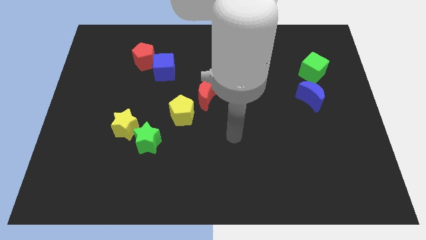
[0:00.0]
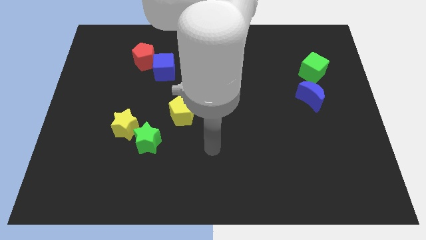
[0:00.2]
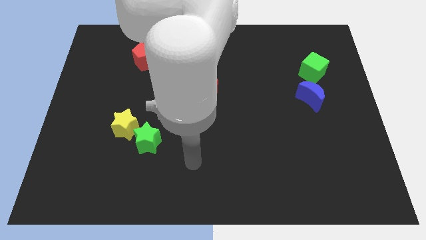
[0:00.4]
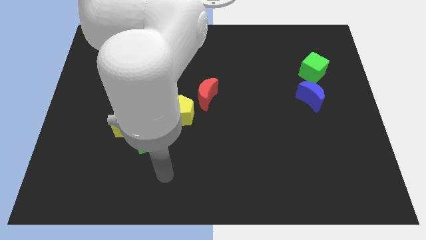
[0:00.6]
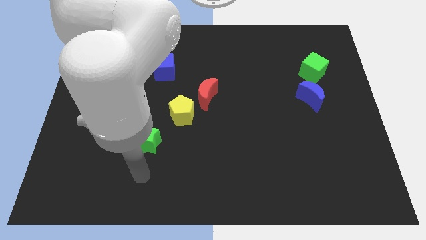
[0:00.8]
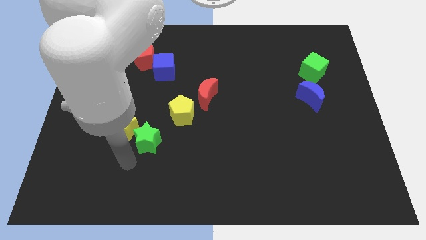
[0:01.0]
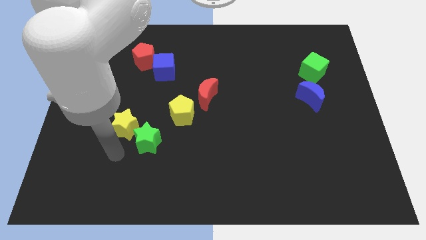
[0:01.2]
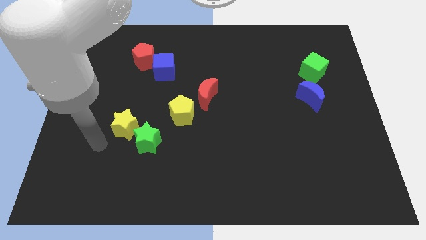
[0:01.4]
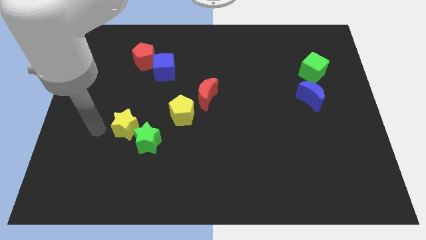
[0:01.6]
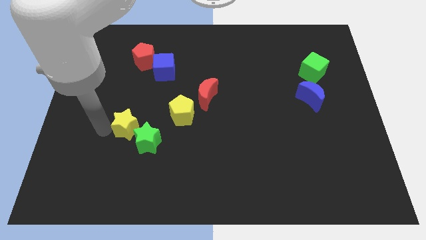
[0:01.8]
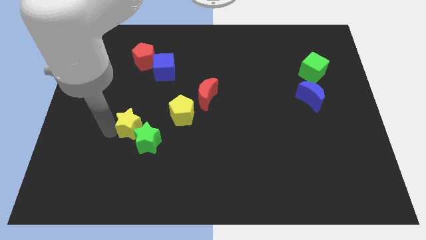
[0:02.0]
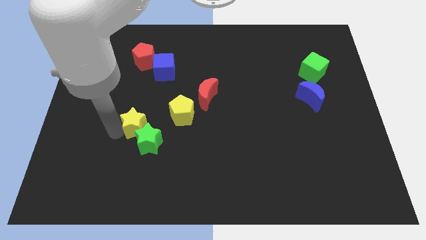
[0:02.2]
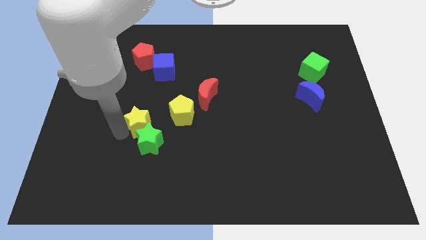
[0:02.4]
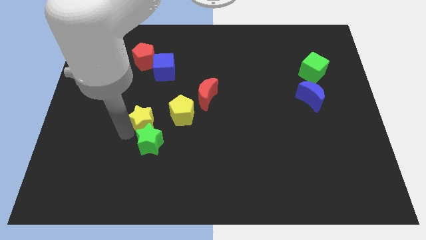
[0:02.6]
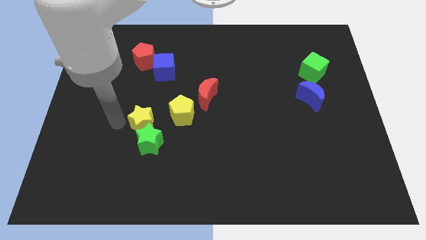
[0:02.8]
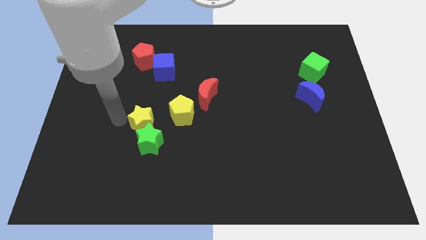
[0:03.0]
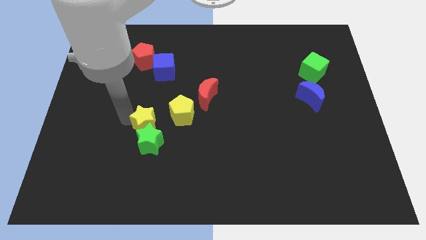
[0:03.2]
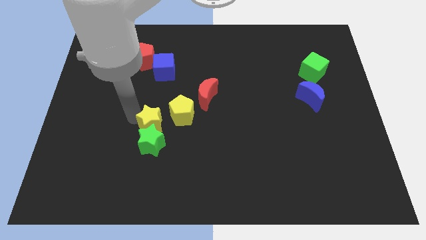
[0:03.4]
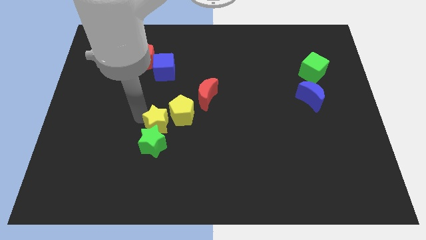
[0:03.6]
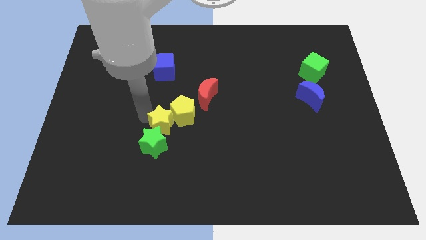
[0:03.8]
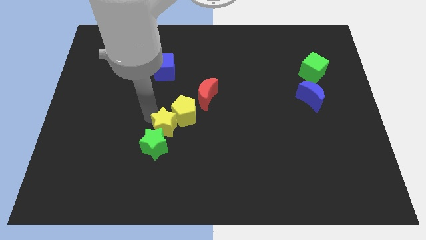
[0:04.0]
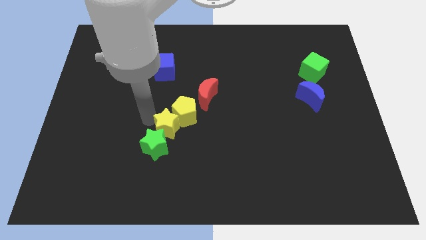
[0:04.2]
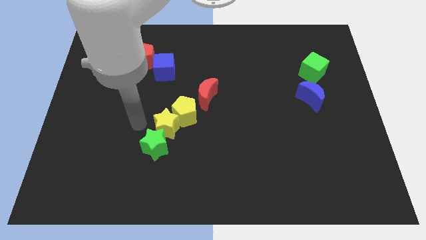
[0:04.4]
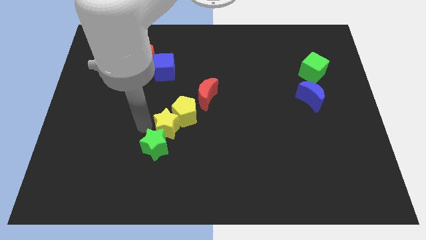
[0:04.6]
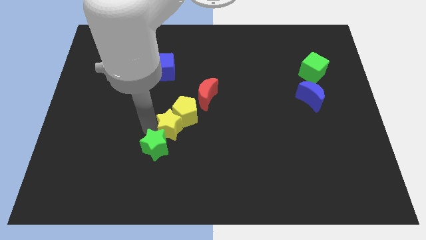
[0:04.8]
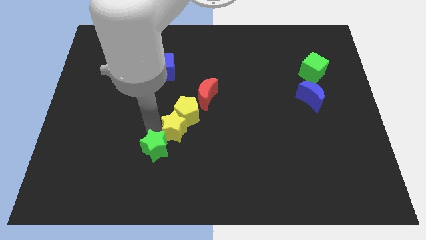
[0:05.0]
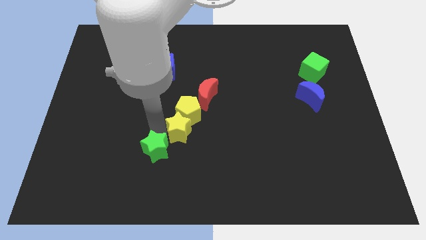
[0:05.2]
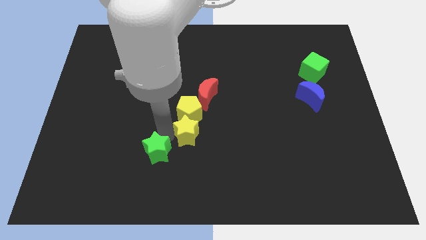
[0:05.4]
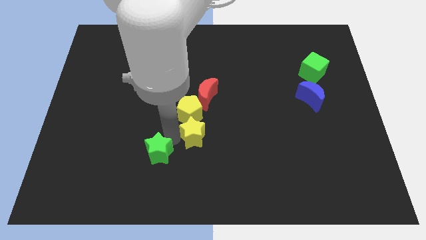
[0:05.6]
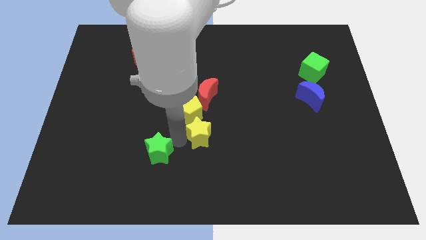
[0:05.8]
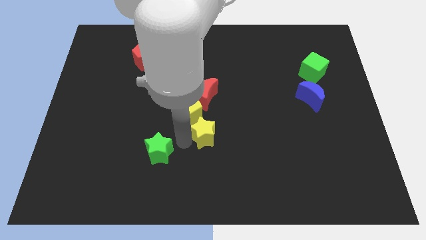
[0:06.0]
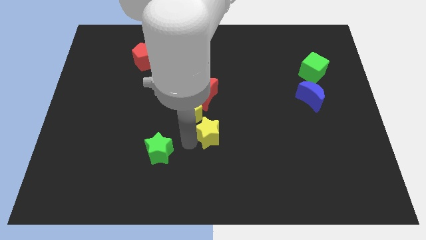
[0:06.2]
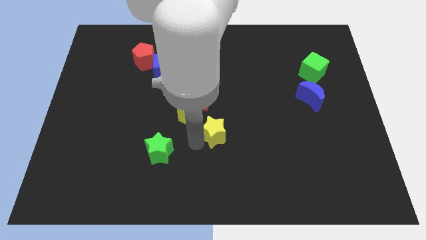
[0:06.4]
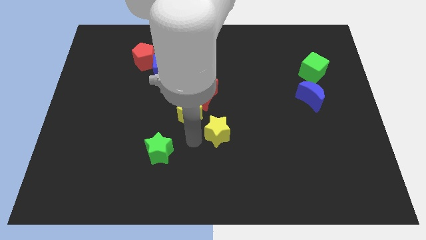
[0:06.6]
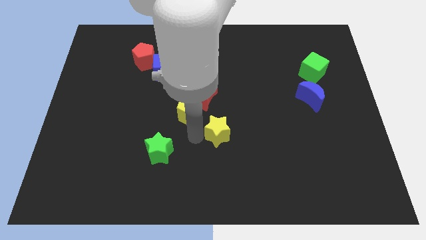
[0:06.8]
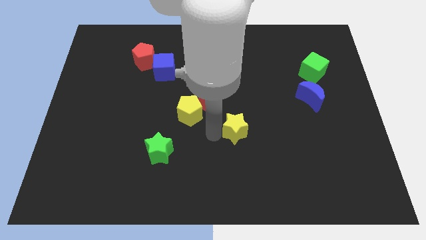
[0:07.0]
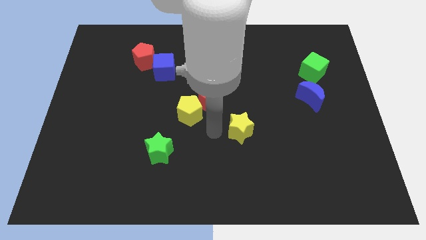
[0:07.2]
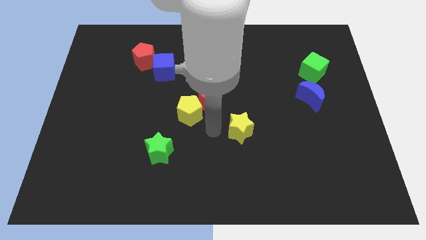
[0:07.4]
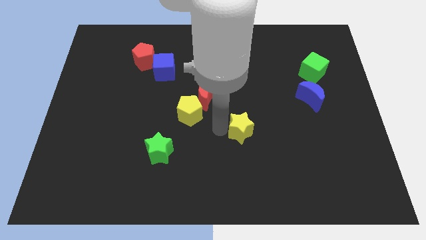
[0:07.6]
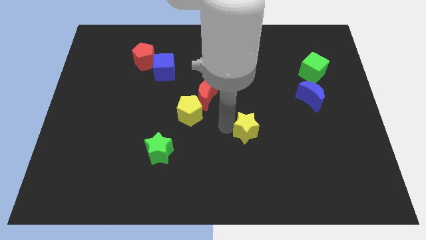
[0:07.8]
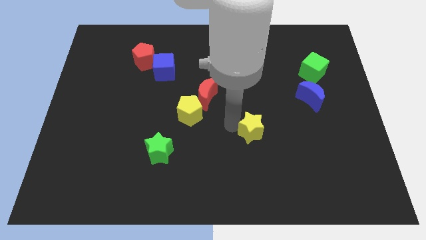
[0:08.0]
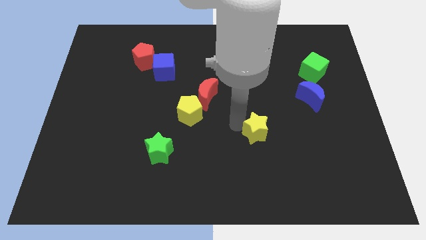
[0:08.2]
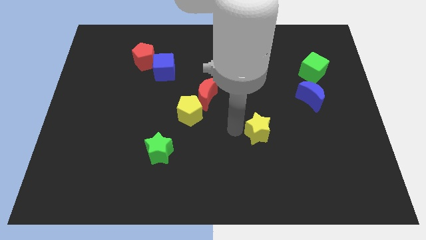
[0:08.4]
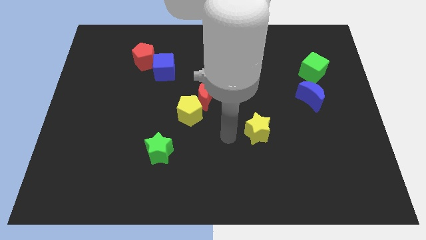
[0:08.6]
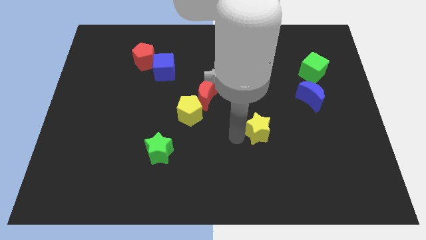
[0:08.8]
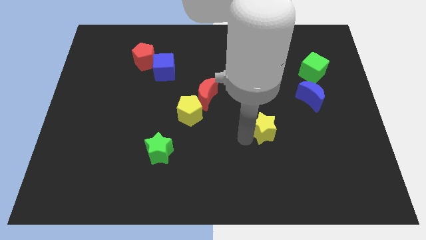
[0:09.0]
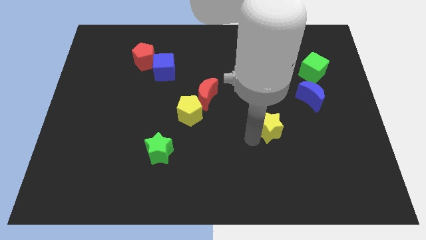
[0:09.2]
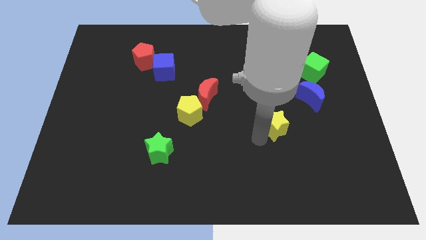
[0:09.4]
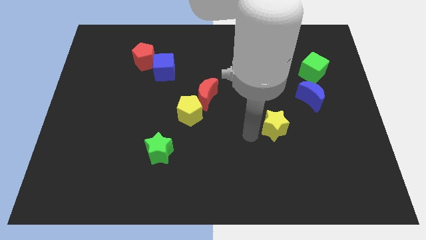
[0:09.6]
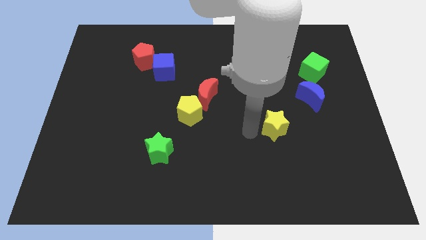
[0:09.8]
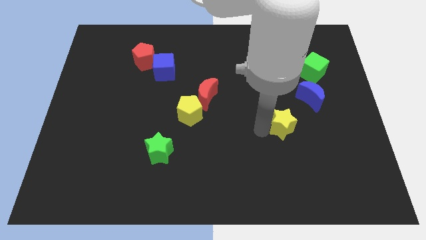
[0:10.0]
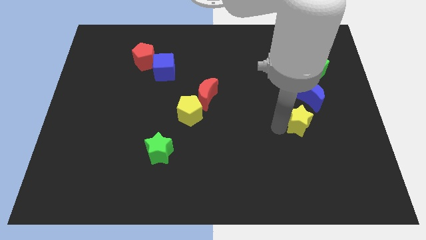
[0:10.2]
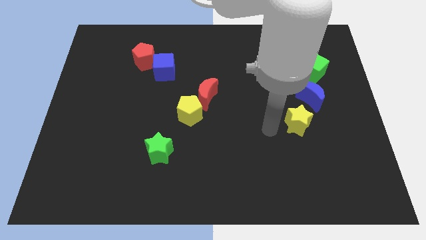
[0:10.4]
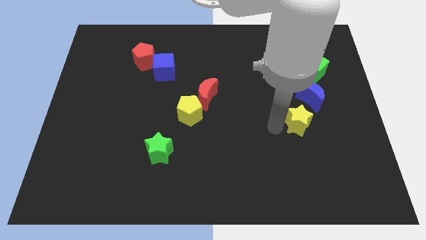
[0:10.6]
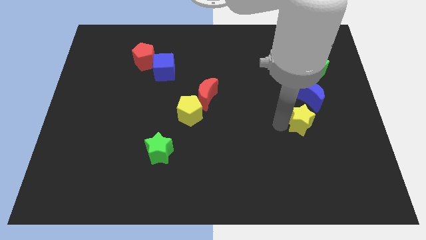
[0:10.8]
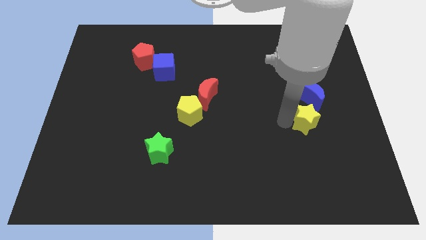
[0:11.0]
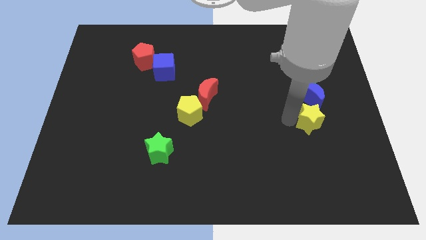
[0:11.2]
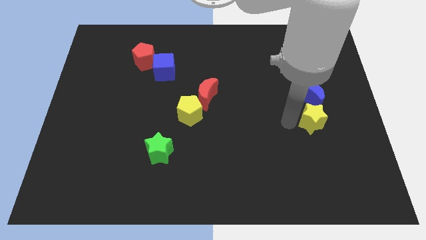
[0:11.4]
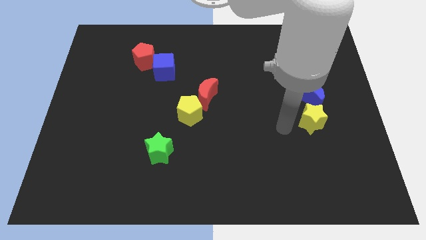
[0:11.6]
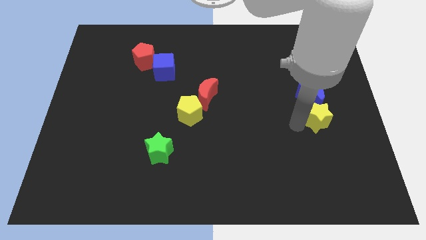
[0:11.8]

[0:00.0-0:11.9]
move the yellow star to the bottom right of the blue moon

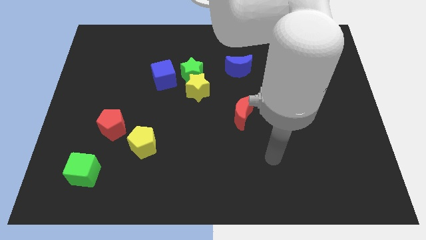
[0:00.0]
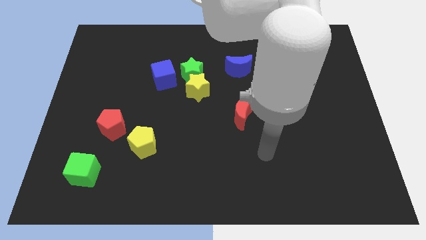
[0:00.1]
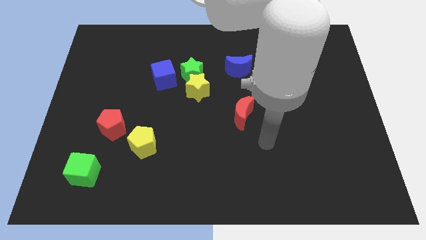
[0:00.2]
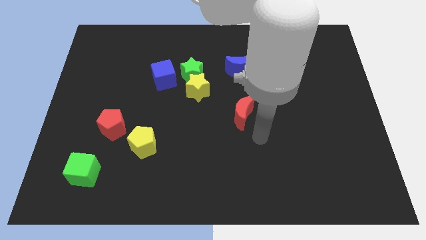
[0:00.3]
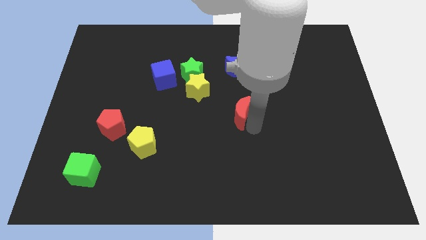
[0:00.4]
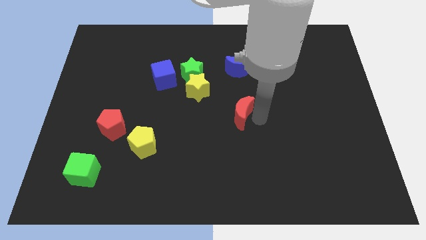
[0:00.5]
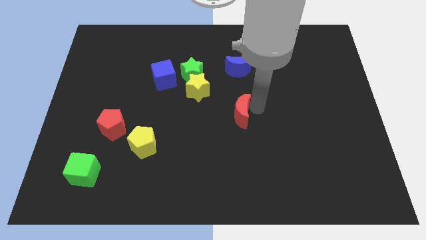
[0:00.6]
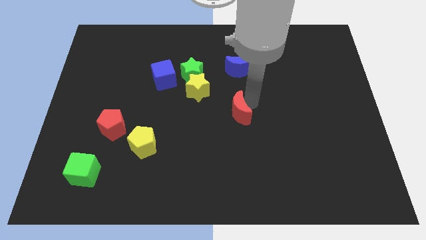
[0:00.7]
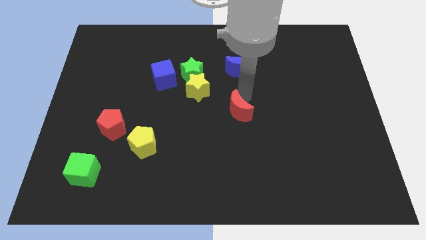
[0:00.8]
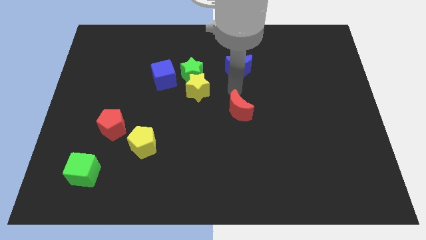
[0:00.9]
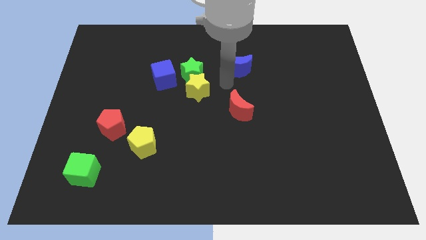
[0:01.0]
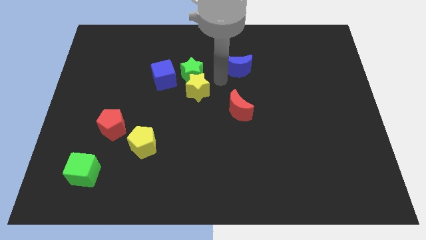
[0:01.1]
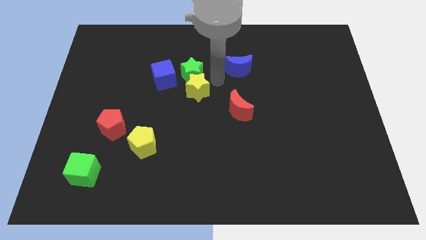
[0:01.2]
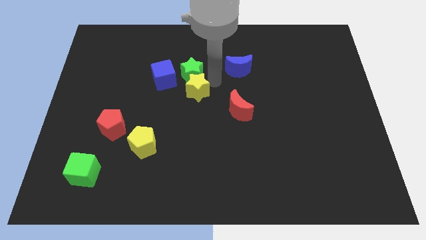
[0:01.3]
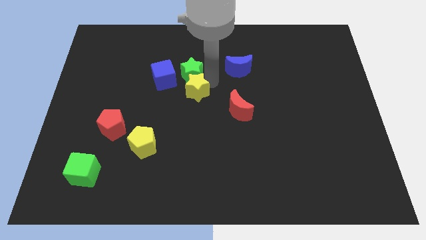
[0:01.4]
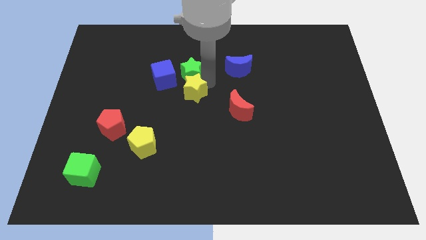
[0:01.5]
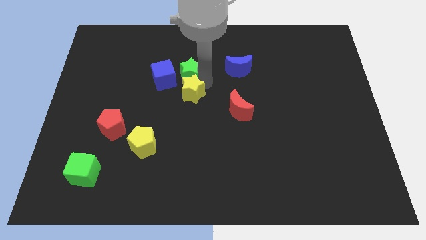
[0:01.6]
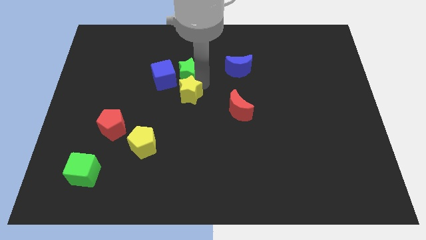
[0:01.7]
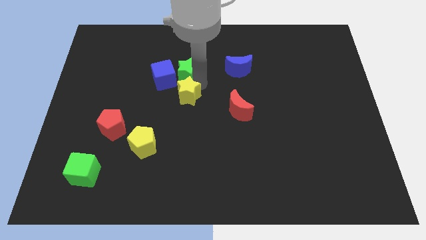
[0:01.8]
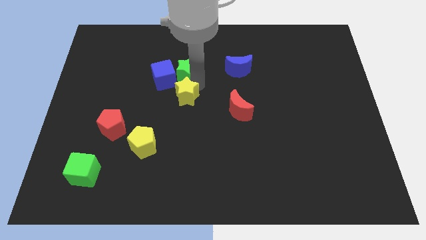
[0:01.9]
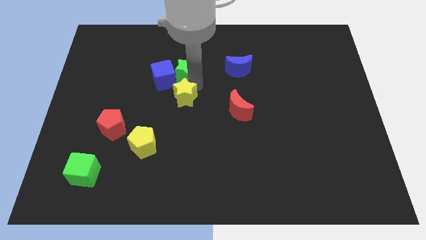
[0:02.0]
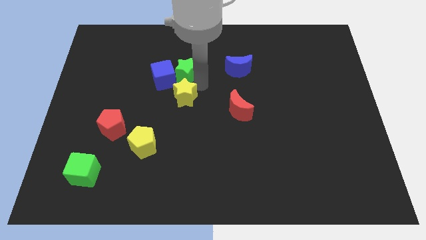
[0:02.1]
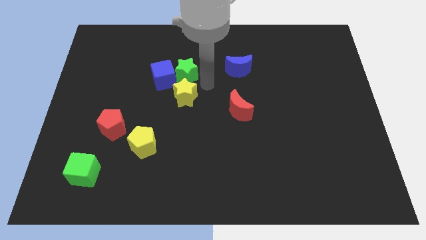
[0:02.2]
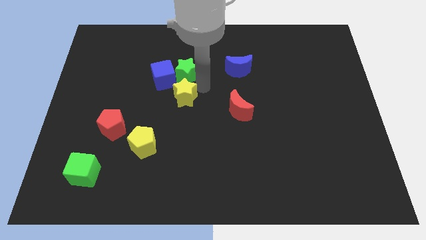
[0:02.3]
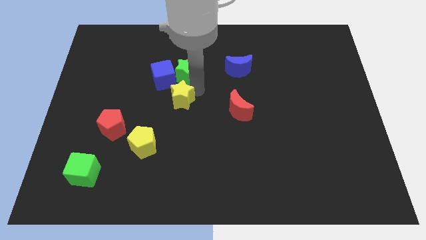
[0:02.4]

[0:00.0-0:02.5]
move the yellow star below the blue cube
